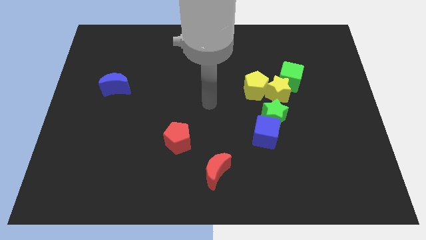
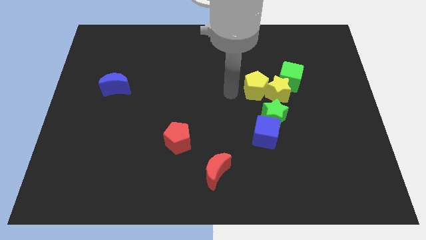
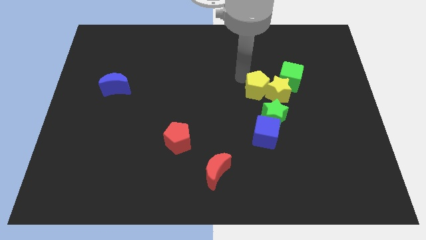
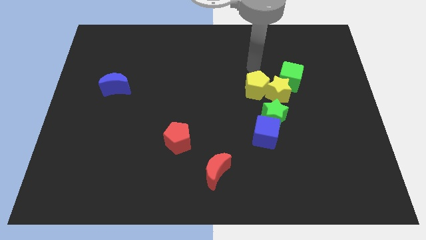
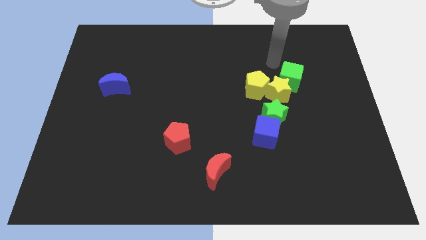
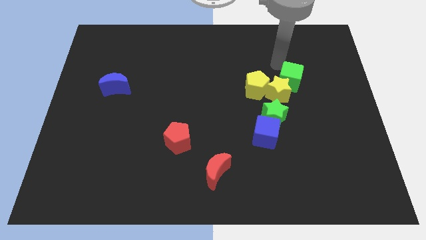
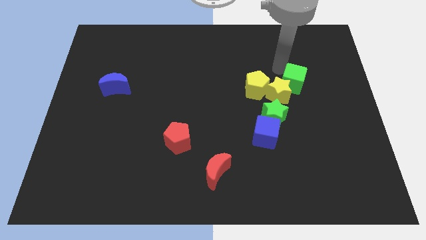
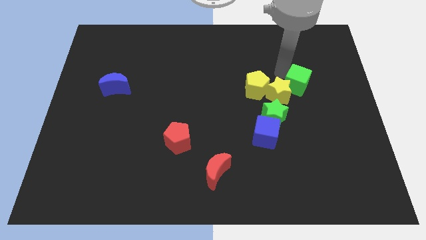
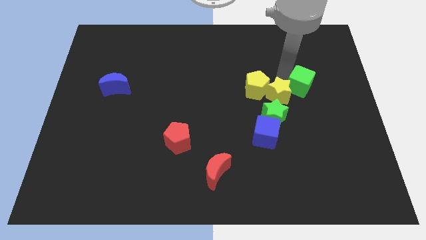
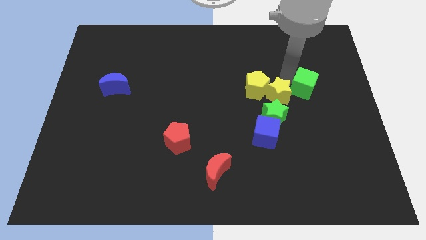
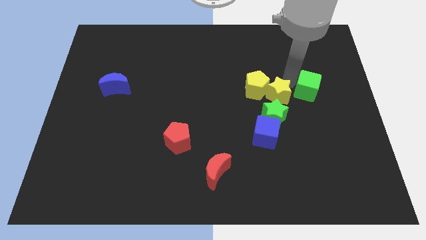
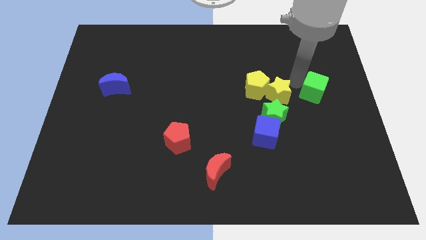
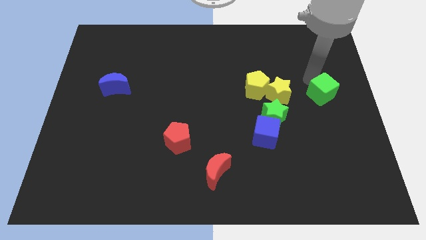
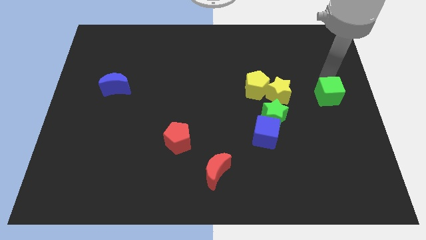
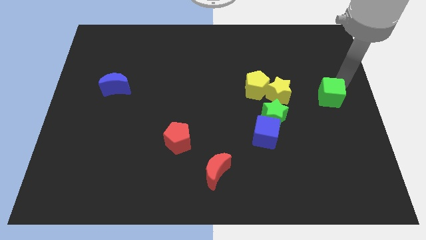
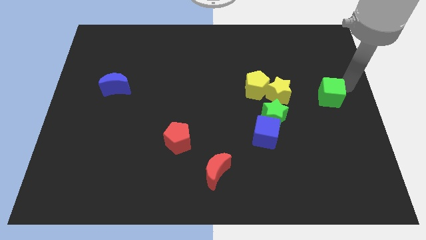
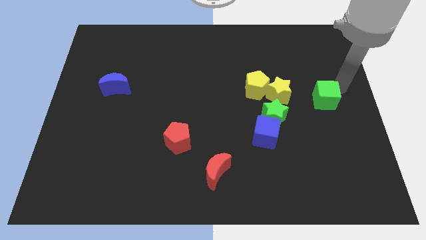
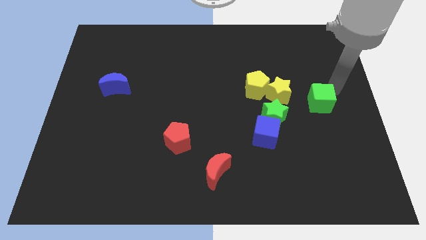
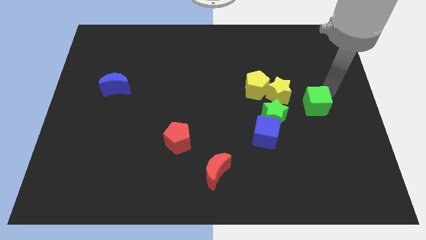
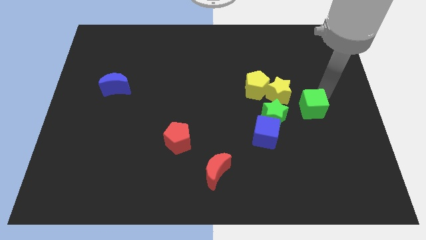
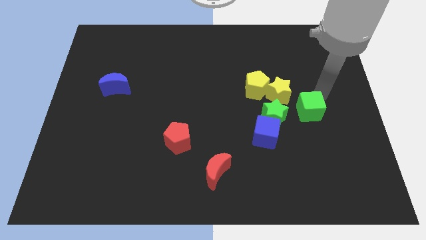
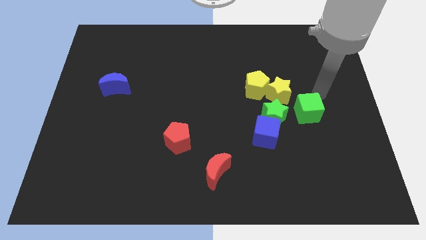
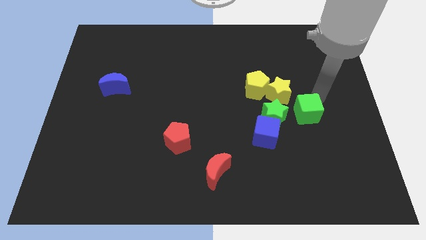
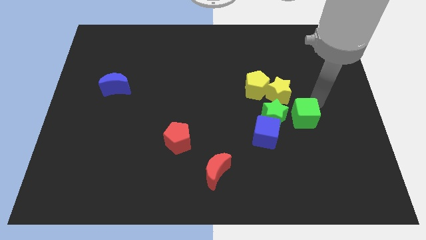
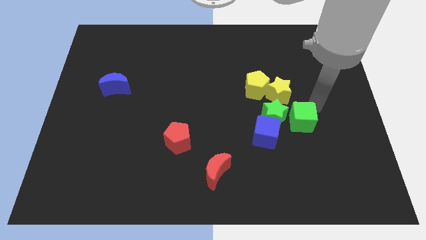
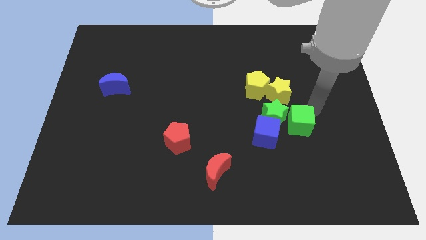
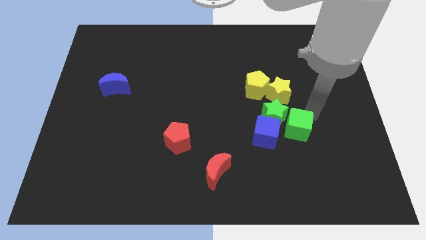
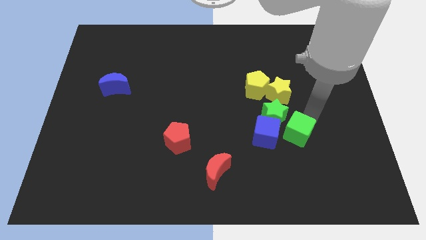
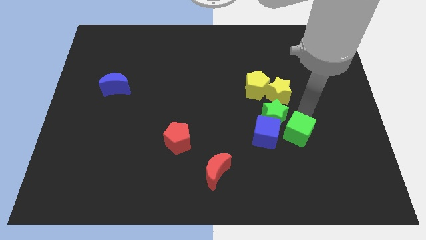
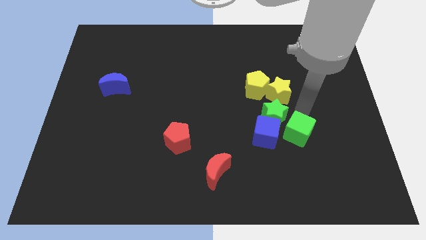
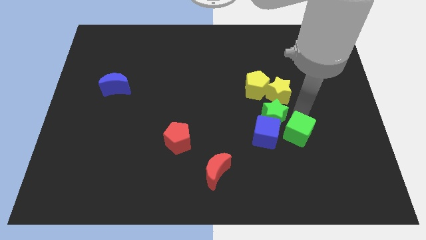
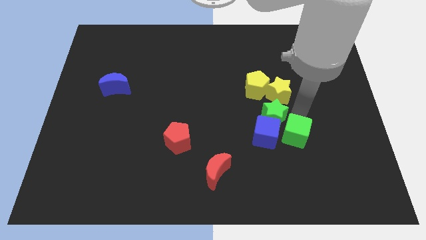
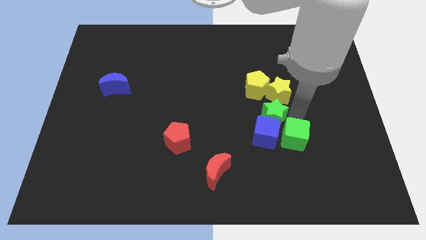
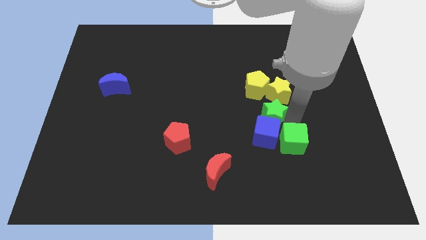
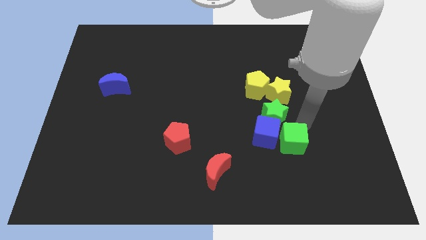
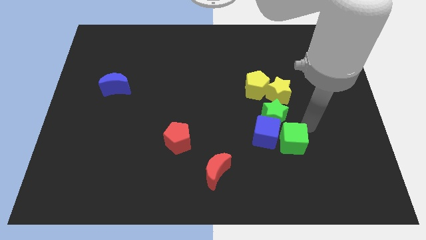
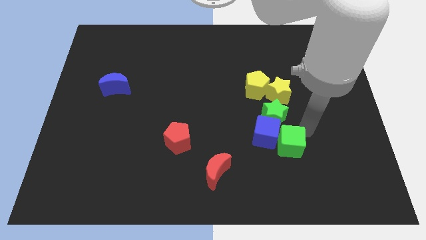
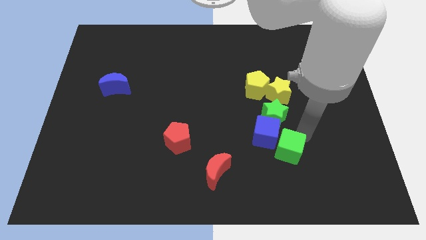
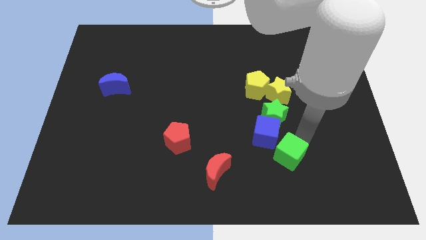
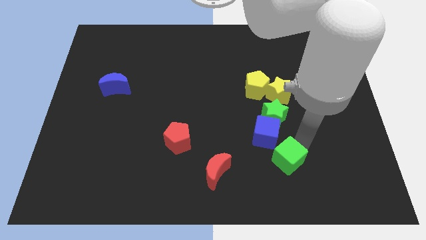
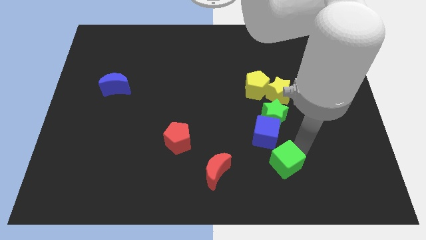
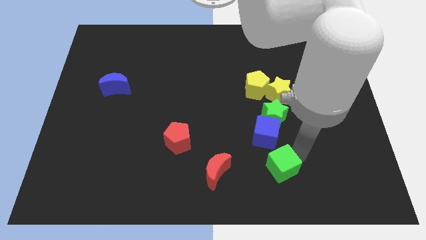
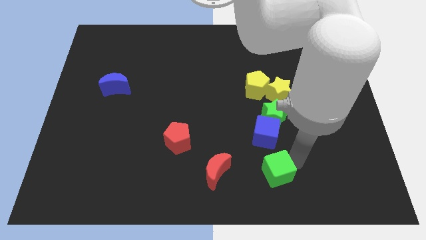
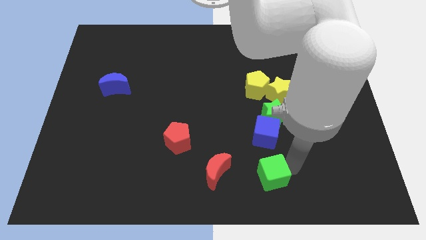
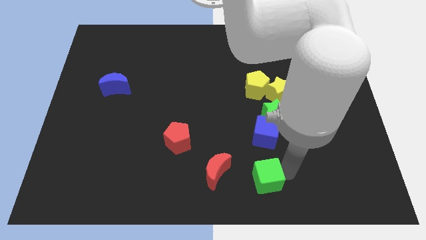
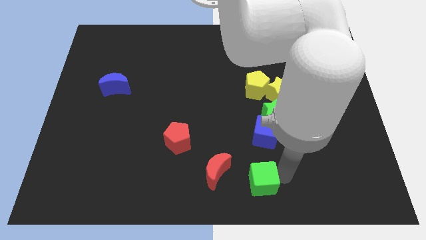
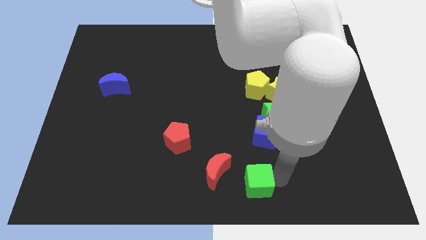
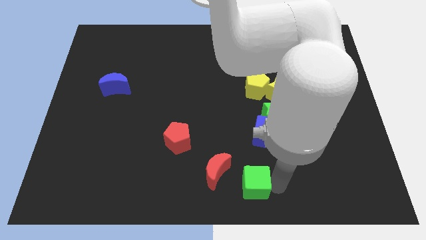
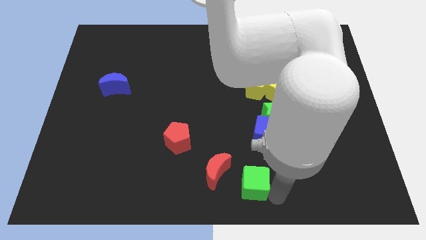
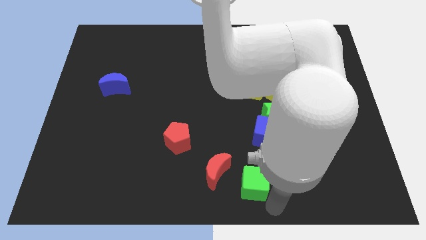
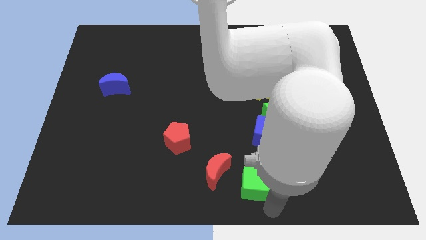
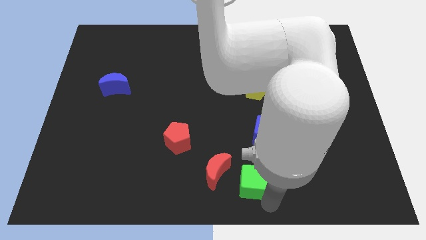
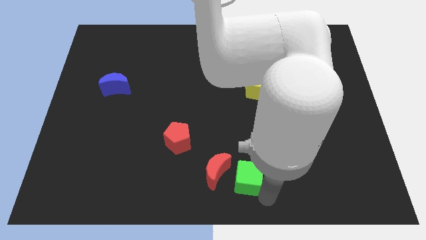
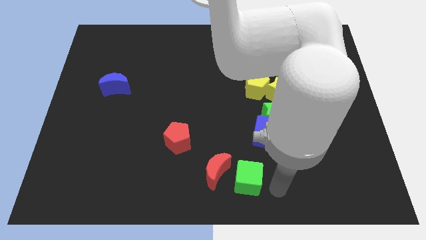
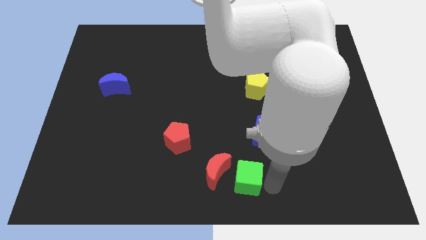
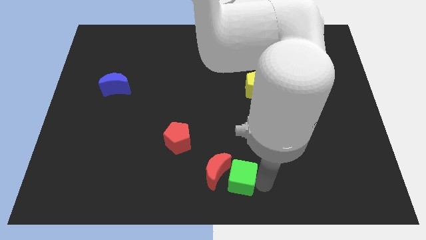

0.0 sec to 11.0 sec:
move the green cube close to the red moon

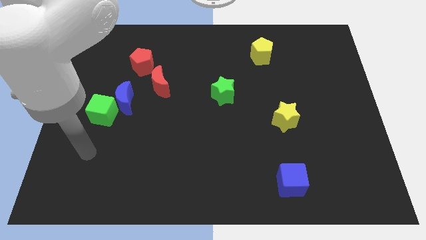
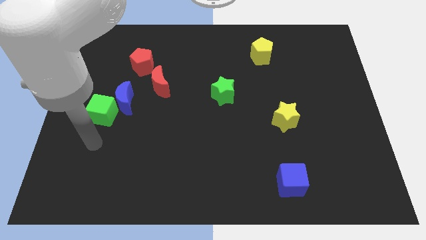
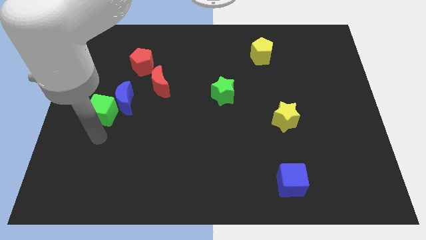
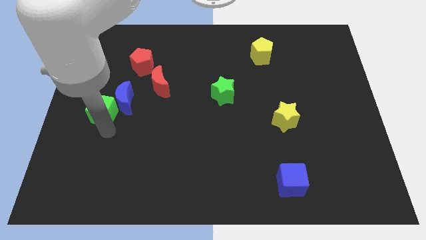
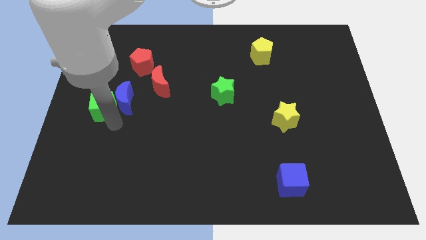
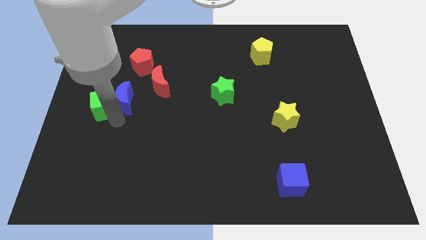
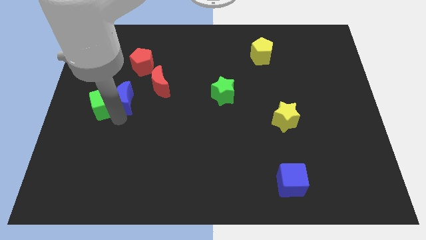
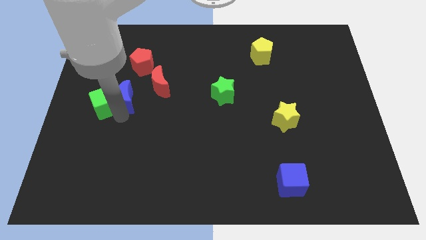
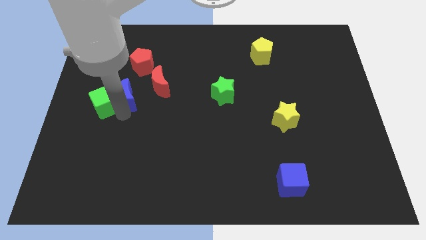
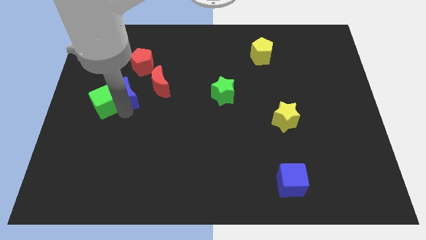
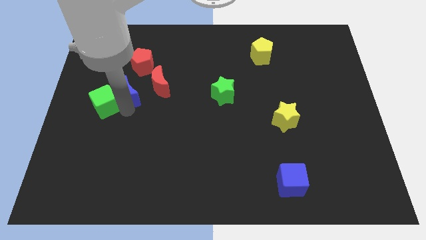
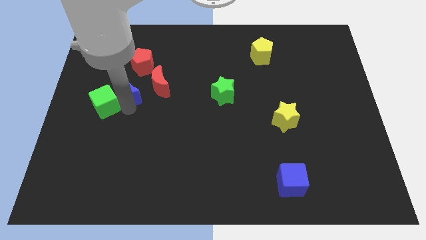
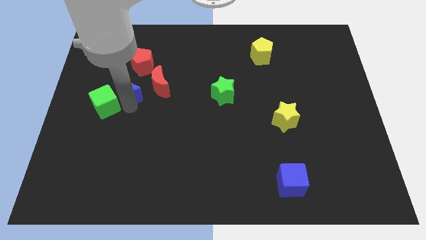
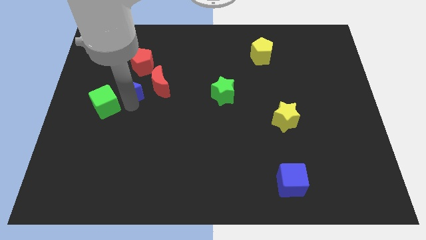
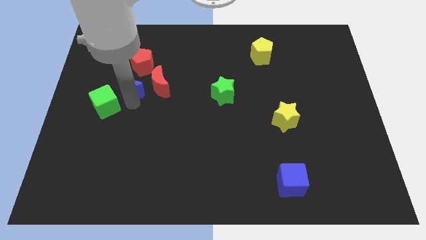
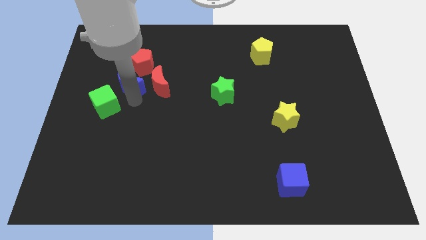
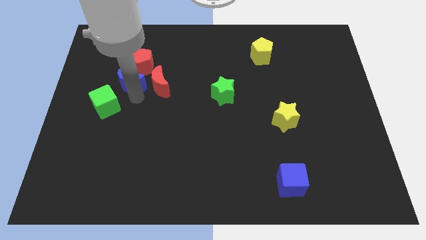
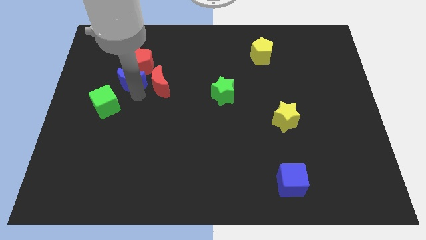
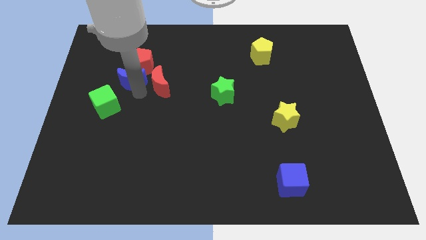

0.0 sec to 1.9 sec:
move the blue moon close to the red pentagon
